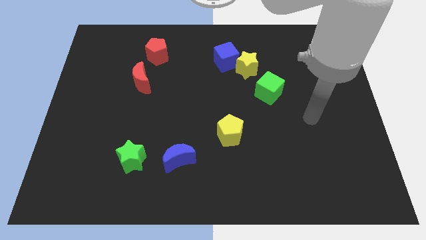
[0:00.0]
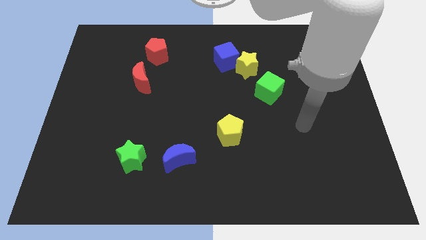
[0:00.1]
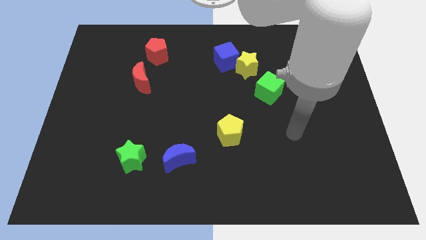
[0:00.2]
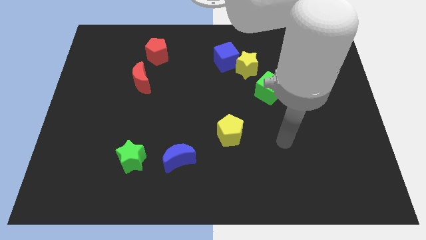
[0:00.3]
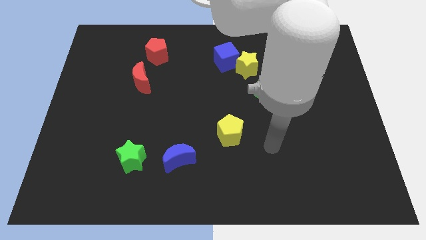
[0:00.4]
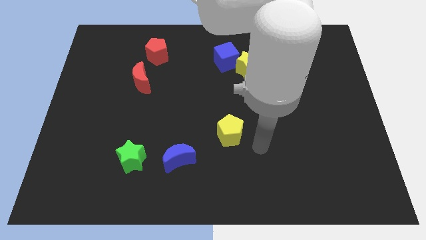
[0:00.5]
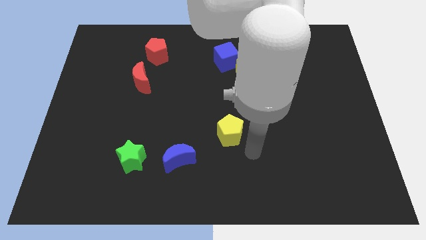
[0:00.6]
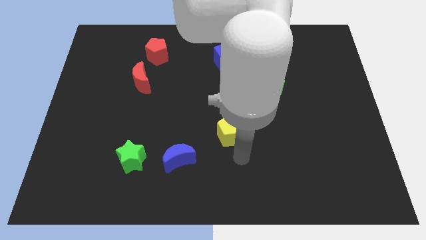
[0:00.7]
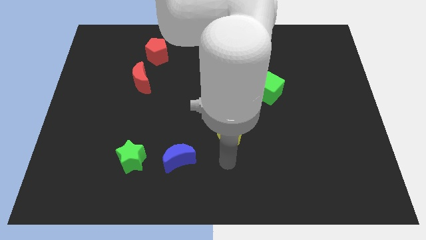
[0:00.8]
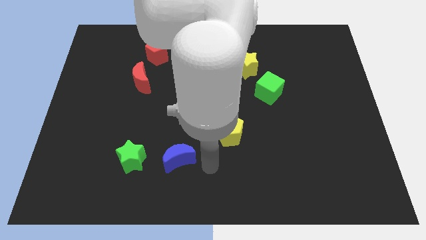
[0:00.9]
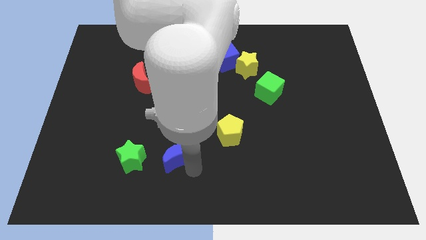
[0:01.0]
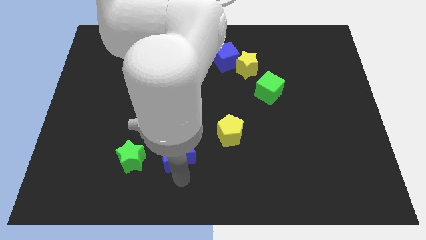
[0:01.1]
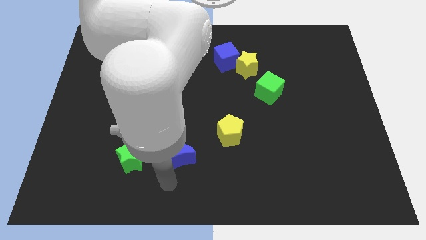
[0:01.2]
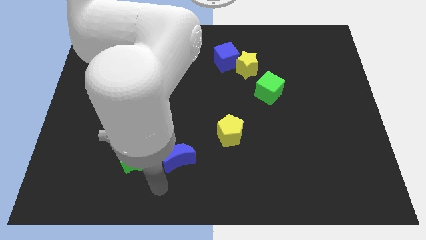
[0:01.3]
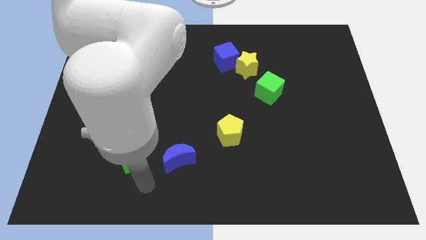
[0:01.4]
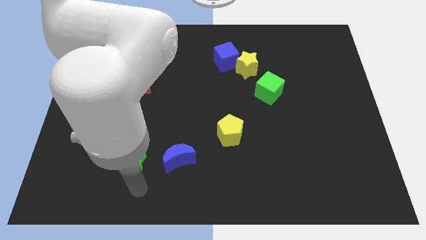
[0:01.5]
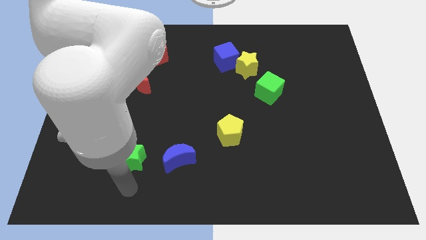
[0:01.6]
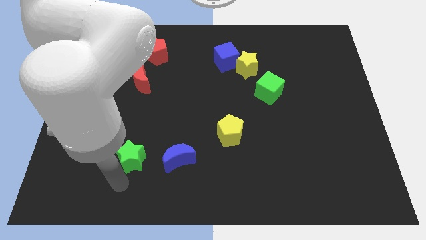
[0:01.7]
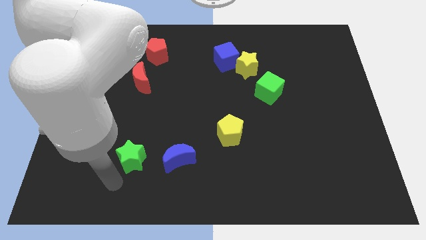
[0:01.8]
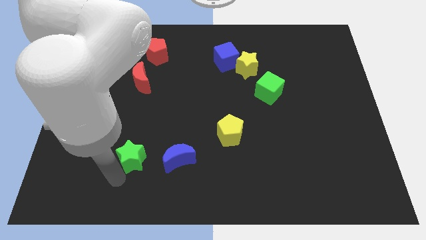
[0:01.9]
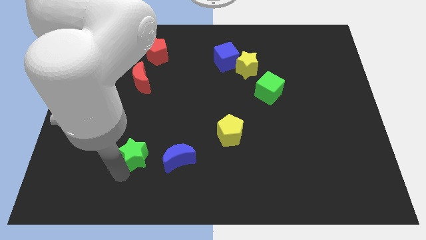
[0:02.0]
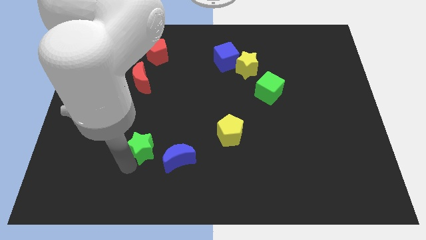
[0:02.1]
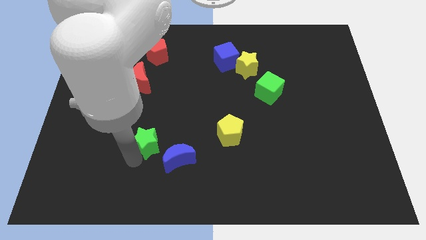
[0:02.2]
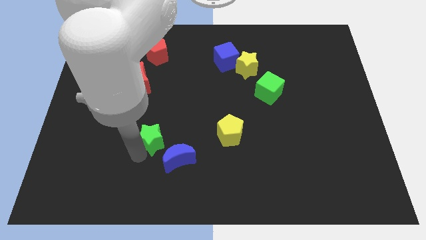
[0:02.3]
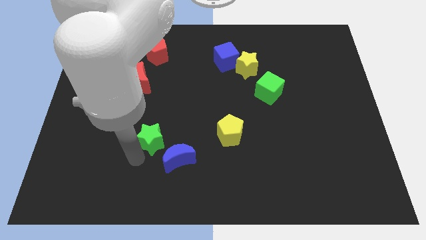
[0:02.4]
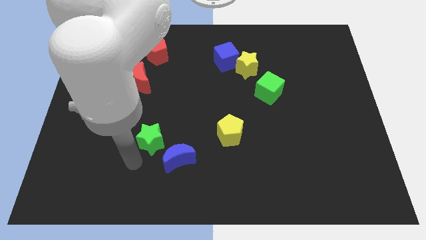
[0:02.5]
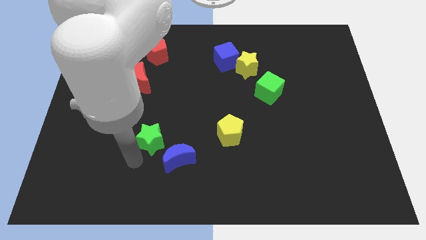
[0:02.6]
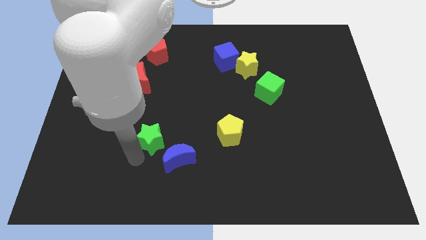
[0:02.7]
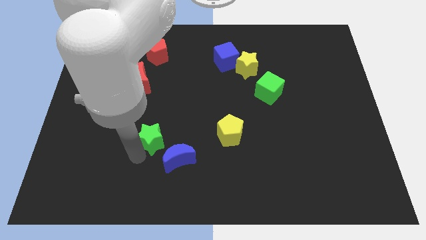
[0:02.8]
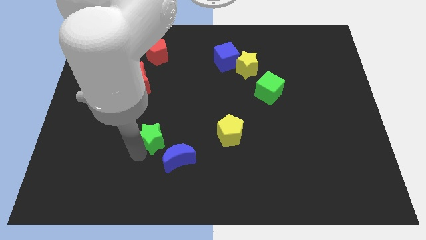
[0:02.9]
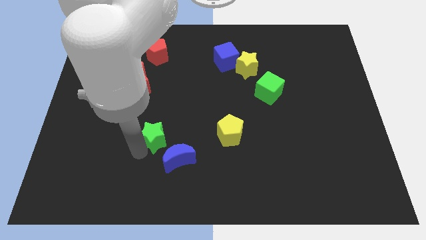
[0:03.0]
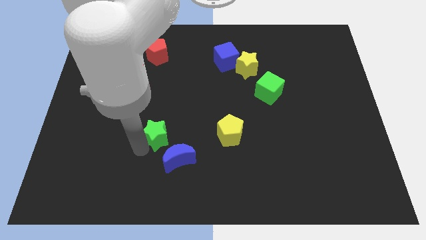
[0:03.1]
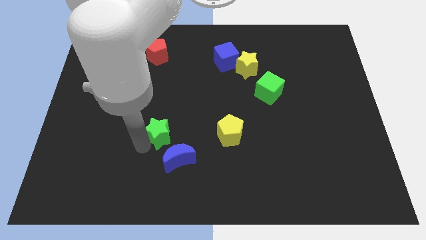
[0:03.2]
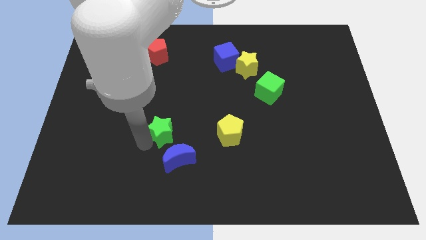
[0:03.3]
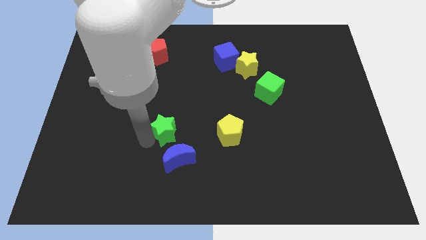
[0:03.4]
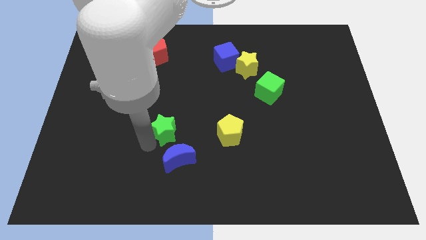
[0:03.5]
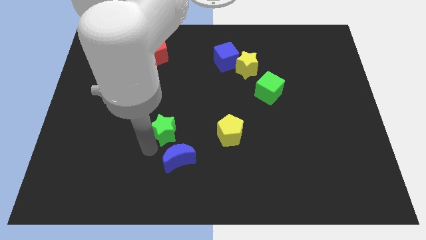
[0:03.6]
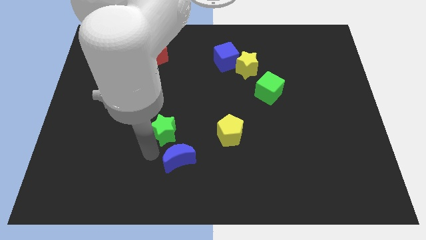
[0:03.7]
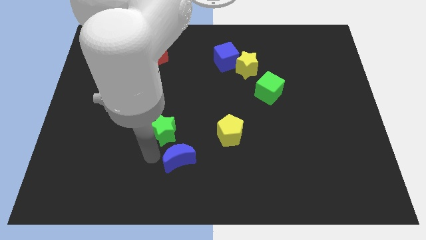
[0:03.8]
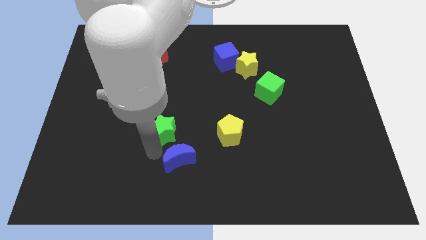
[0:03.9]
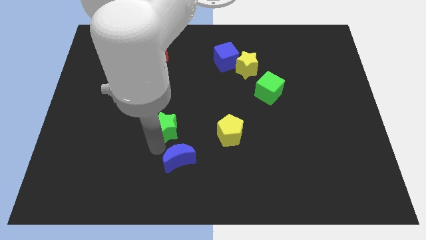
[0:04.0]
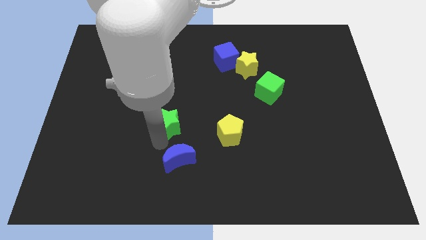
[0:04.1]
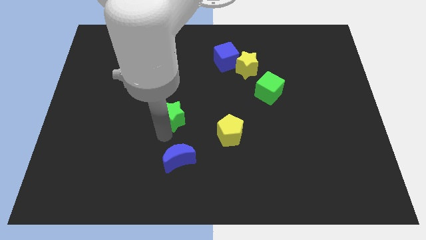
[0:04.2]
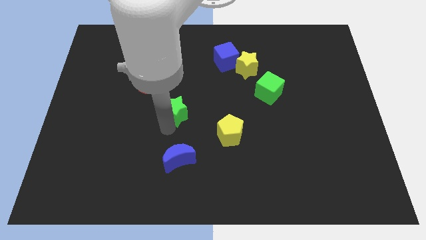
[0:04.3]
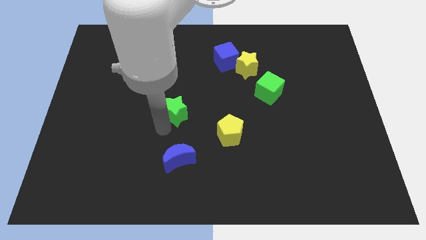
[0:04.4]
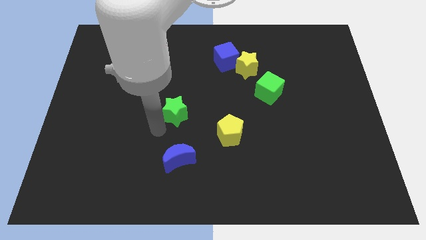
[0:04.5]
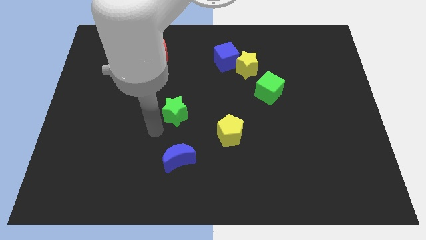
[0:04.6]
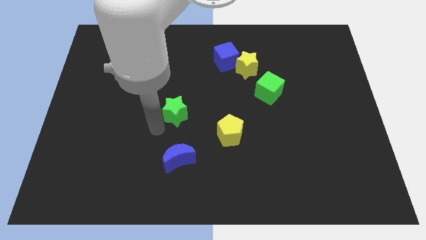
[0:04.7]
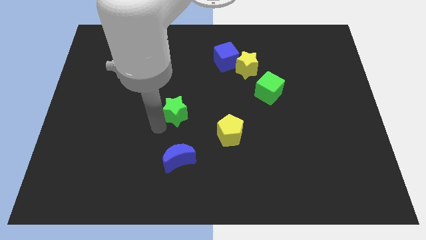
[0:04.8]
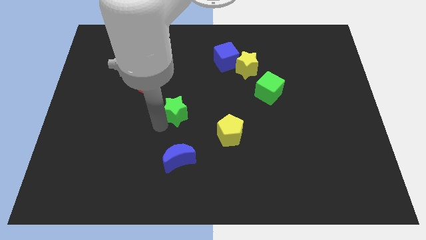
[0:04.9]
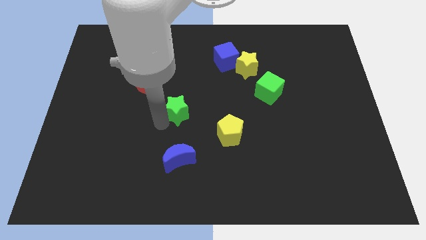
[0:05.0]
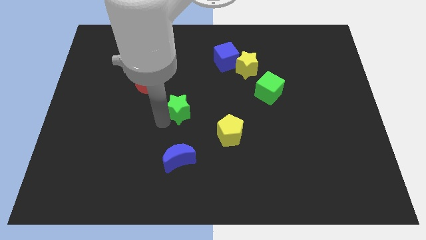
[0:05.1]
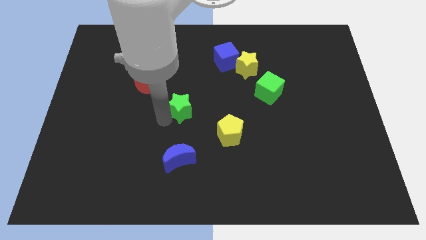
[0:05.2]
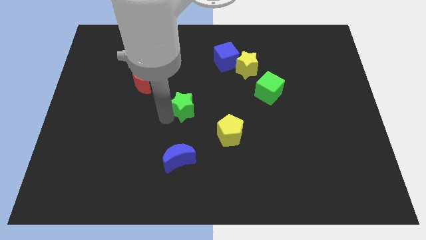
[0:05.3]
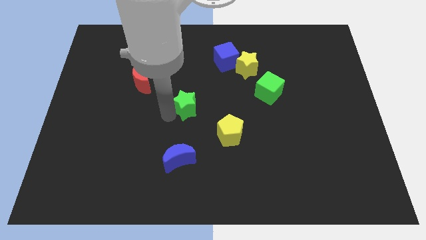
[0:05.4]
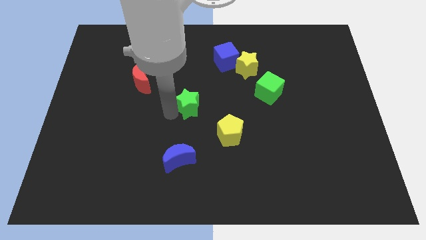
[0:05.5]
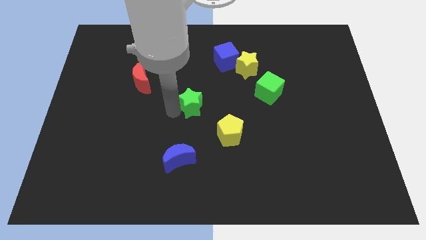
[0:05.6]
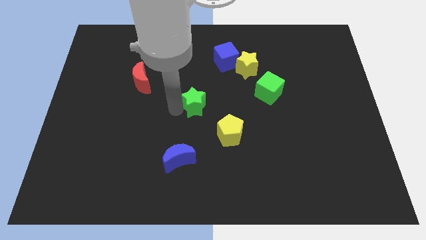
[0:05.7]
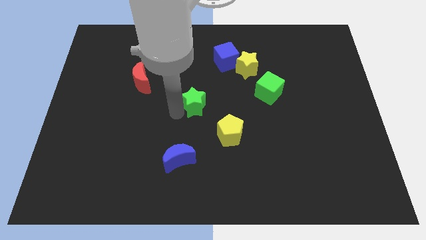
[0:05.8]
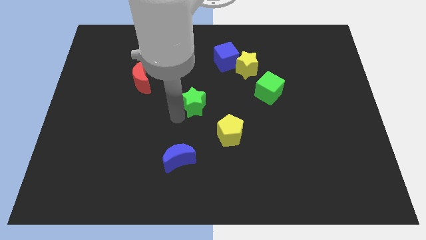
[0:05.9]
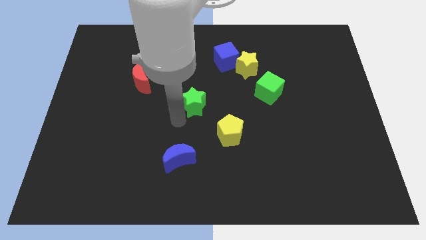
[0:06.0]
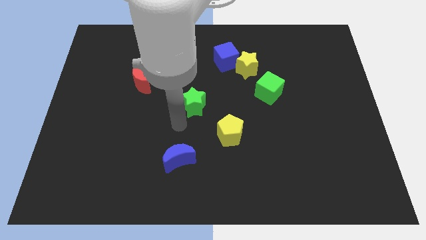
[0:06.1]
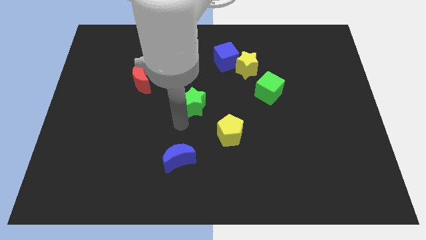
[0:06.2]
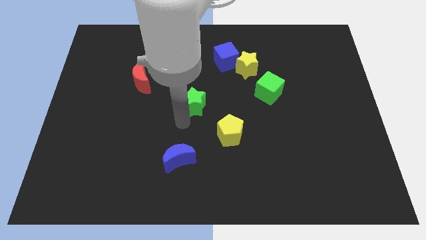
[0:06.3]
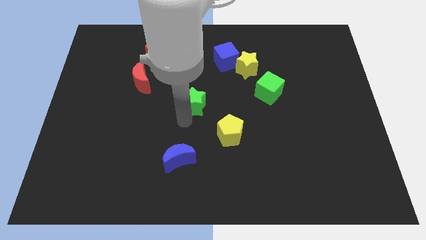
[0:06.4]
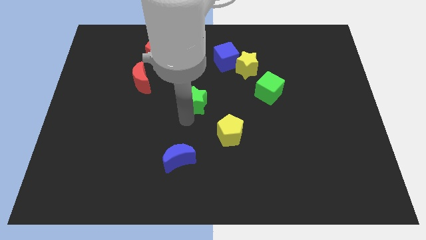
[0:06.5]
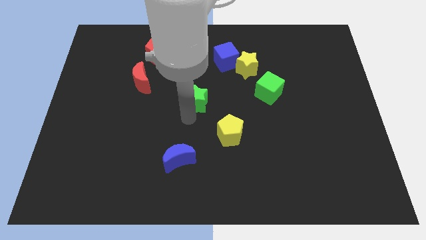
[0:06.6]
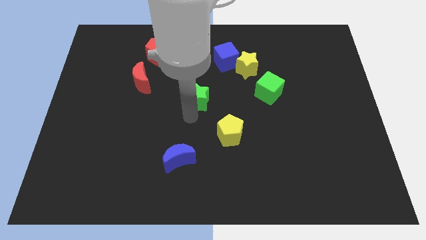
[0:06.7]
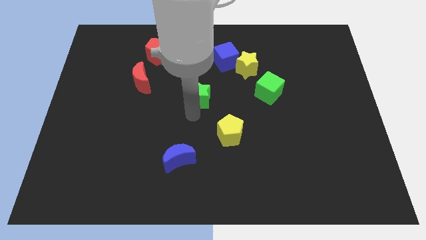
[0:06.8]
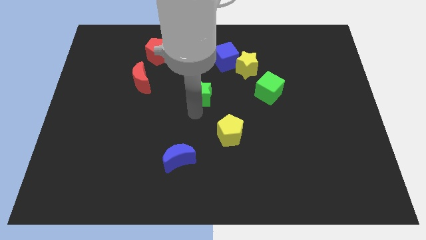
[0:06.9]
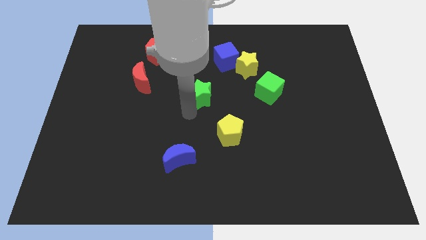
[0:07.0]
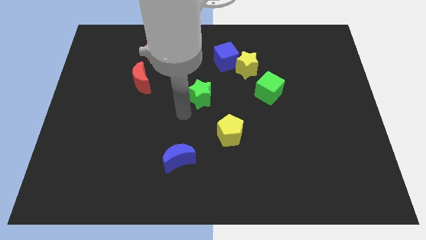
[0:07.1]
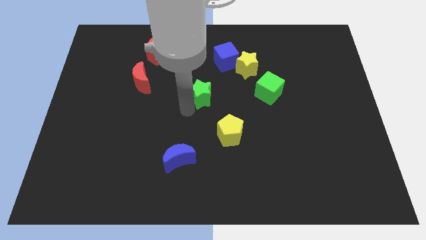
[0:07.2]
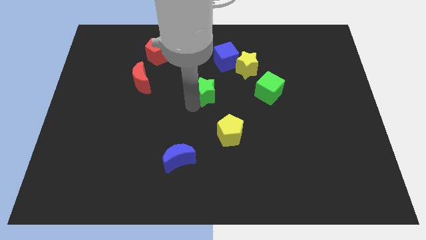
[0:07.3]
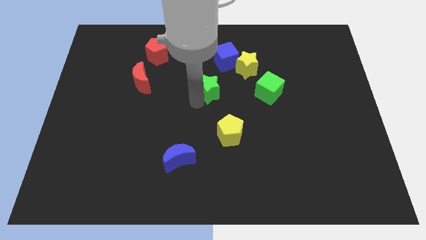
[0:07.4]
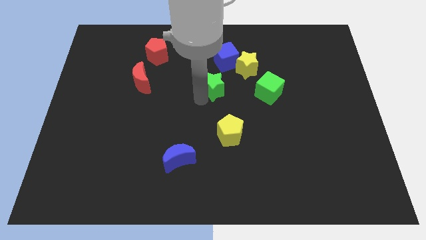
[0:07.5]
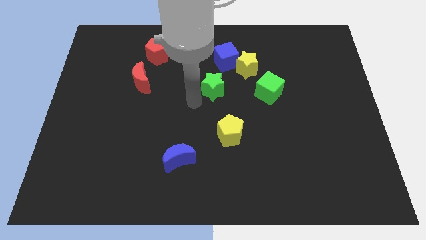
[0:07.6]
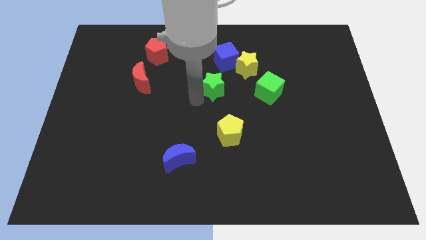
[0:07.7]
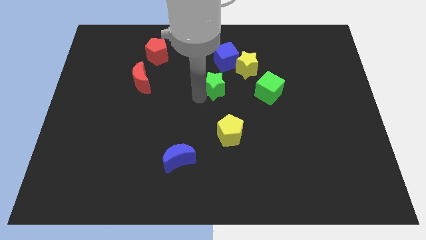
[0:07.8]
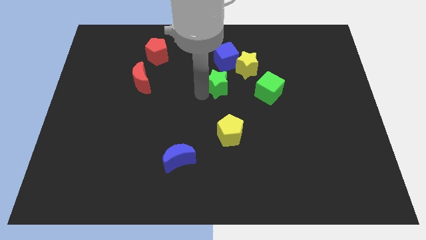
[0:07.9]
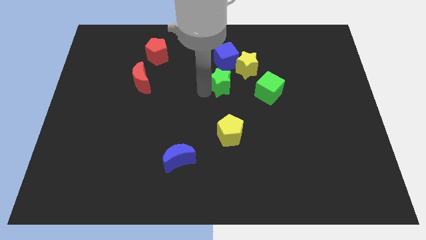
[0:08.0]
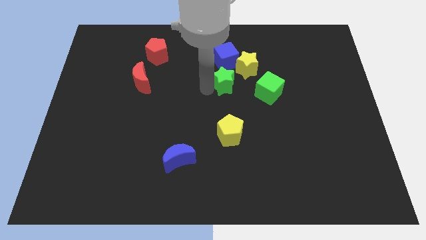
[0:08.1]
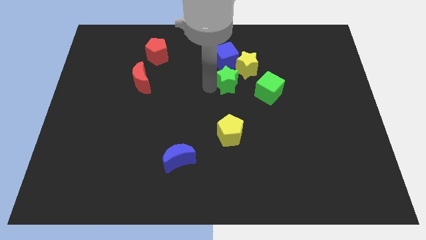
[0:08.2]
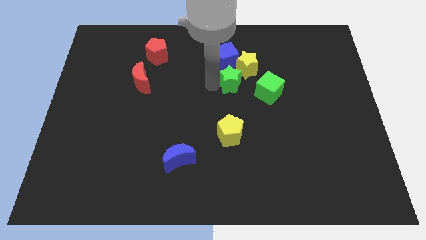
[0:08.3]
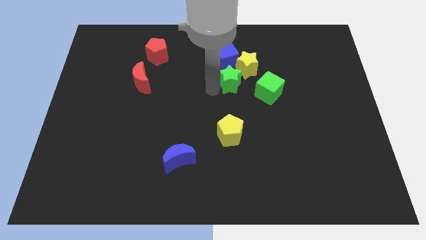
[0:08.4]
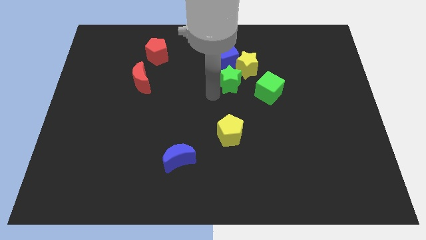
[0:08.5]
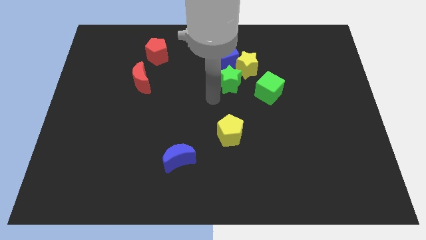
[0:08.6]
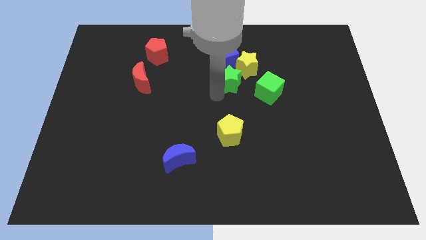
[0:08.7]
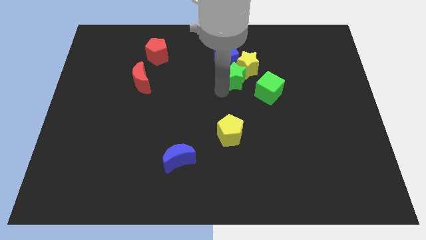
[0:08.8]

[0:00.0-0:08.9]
put the green star to the yellow star
